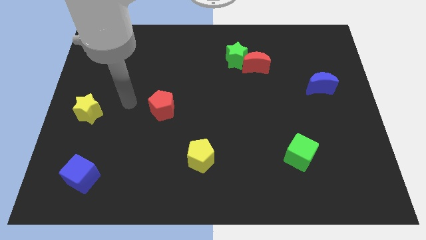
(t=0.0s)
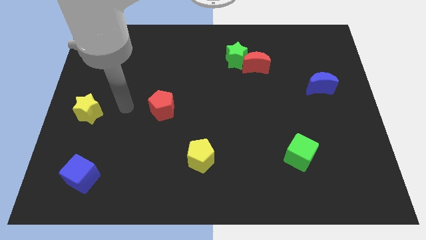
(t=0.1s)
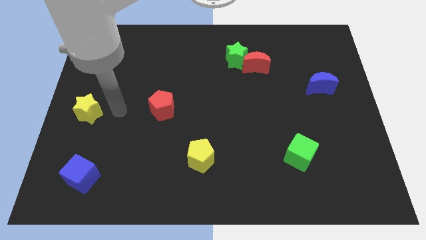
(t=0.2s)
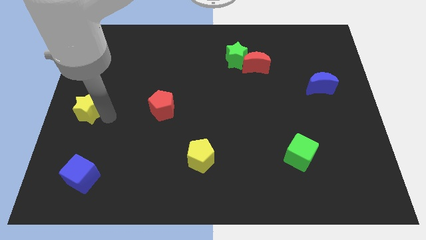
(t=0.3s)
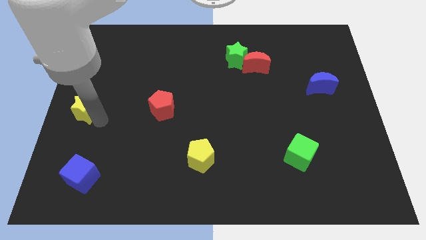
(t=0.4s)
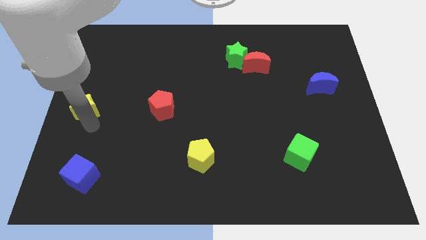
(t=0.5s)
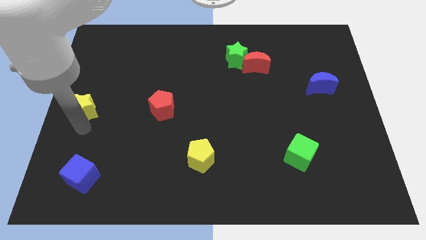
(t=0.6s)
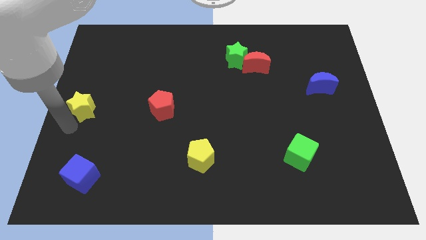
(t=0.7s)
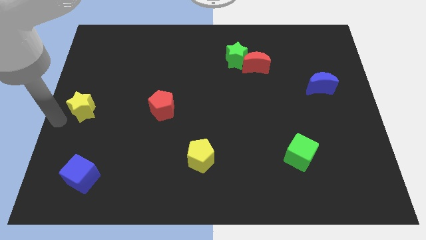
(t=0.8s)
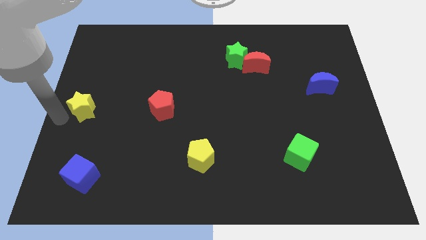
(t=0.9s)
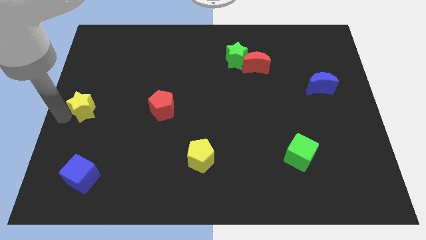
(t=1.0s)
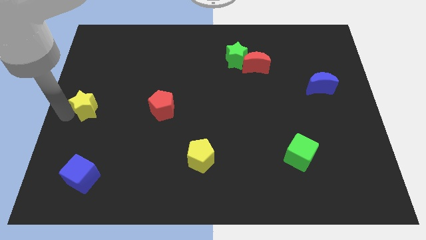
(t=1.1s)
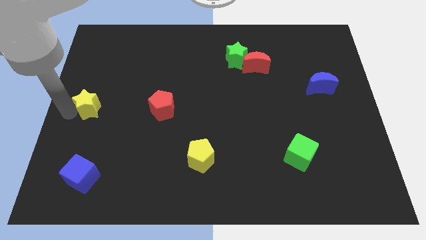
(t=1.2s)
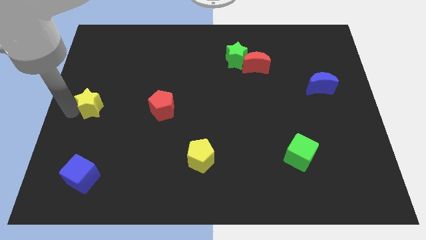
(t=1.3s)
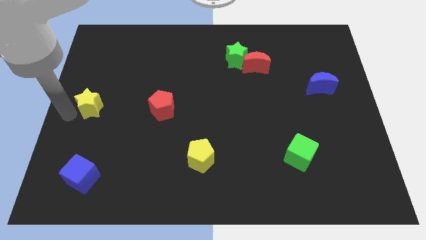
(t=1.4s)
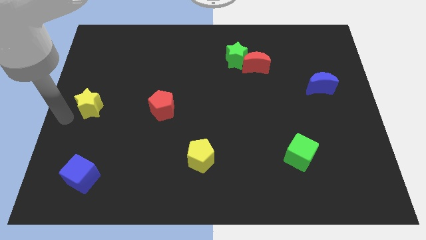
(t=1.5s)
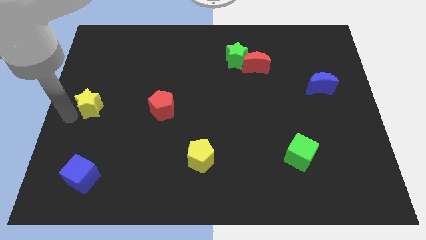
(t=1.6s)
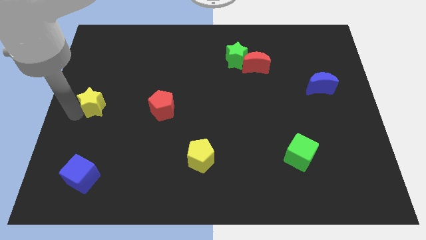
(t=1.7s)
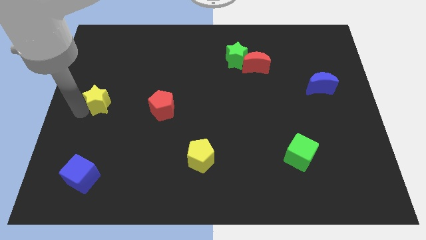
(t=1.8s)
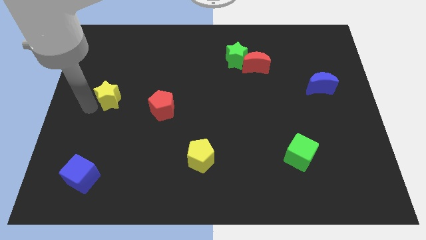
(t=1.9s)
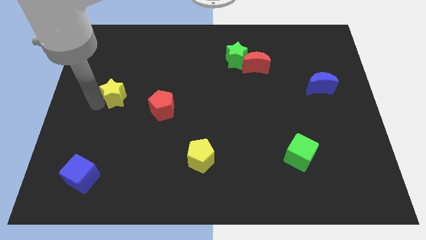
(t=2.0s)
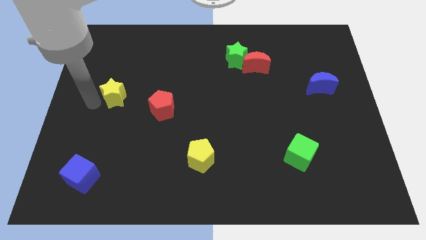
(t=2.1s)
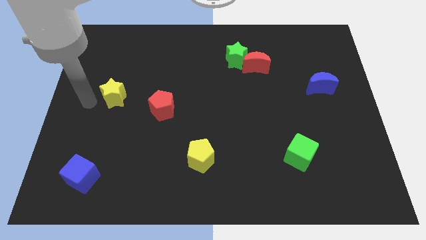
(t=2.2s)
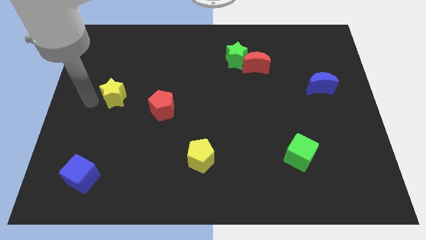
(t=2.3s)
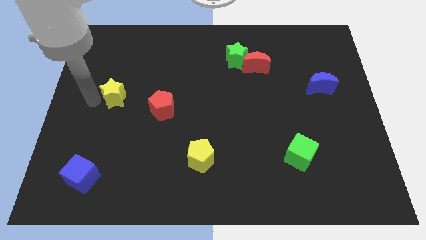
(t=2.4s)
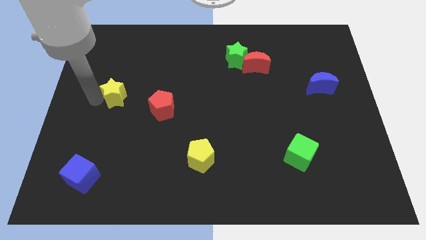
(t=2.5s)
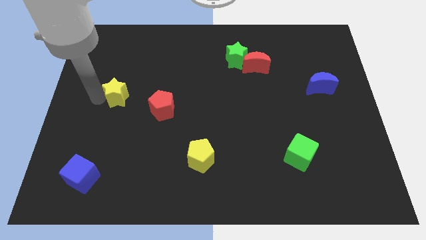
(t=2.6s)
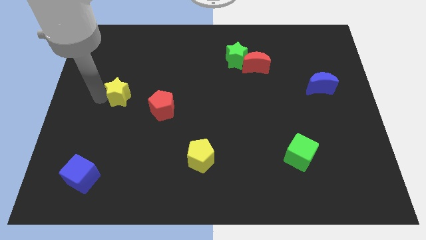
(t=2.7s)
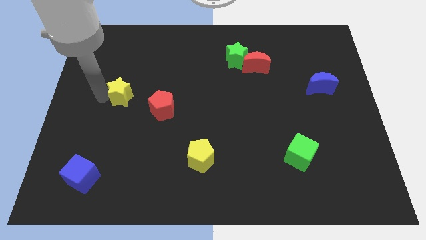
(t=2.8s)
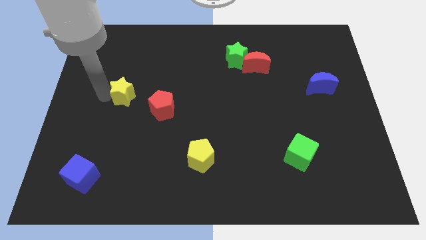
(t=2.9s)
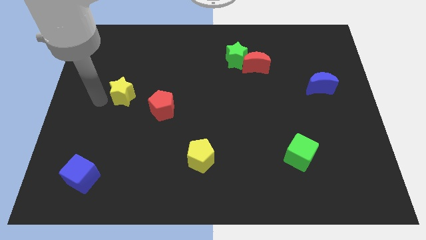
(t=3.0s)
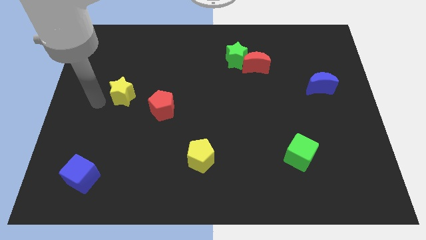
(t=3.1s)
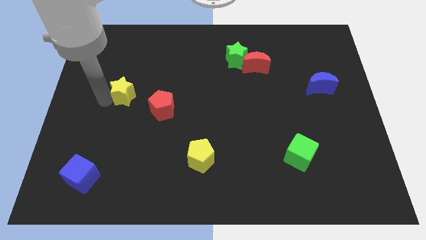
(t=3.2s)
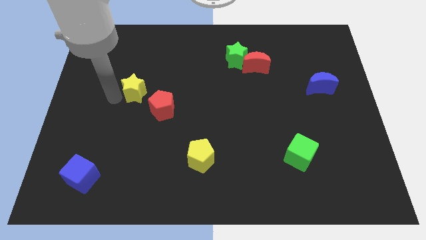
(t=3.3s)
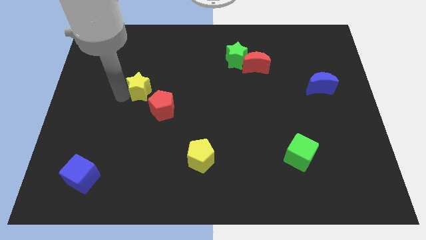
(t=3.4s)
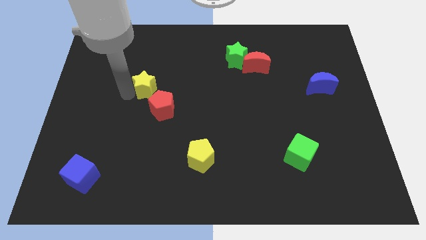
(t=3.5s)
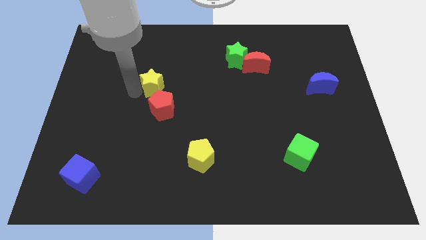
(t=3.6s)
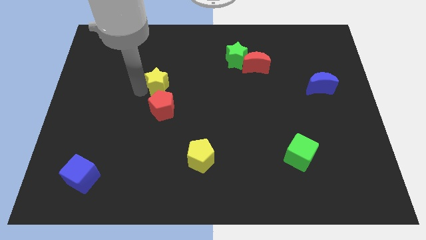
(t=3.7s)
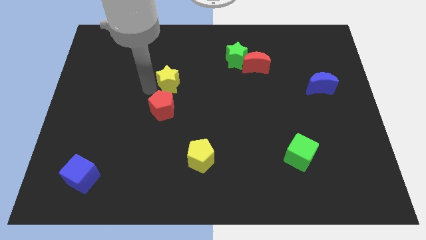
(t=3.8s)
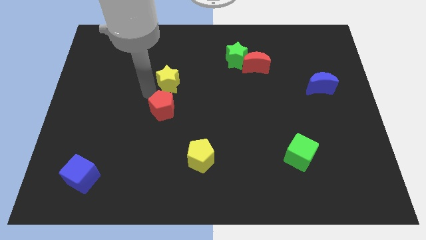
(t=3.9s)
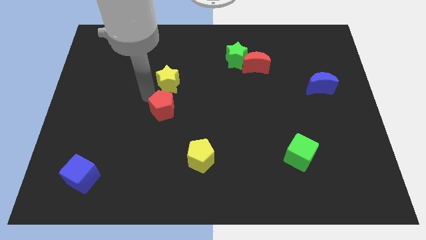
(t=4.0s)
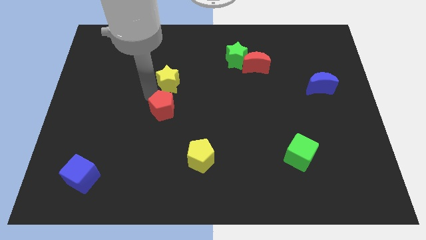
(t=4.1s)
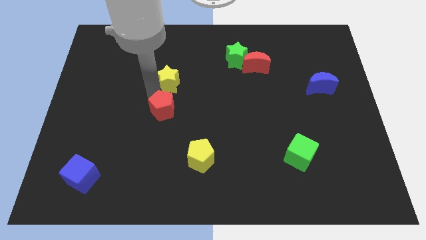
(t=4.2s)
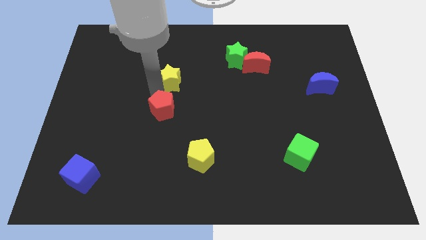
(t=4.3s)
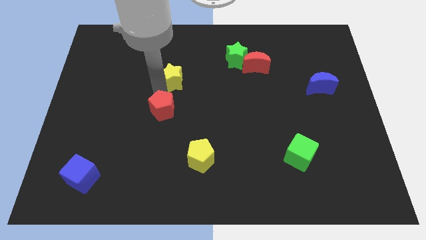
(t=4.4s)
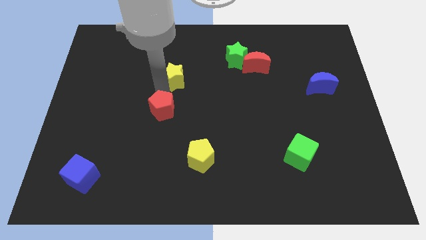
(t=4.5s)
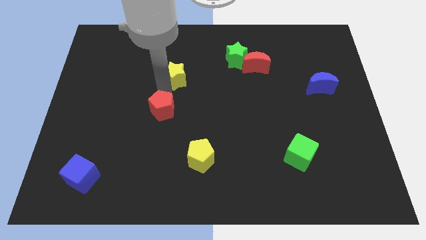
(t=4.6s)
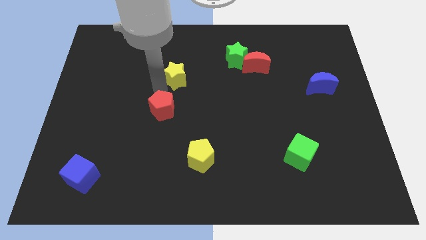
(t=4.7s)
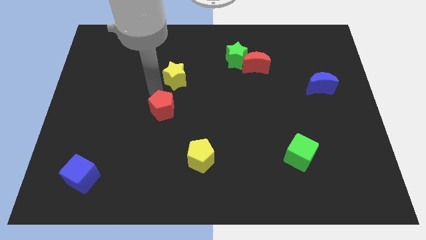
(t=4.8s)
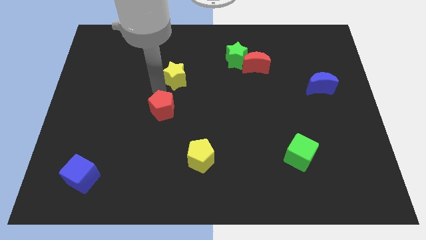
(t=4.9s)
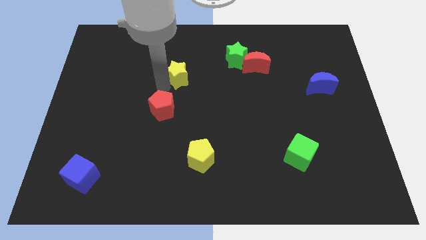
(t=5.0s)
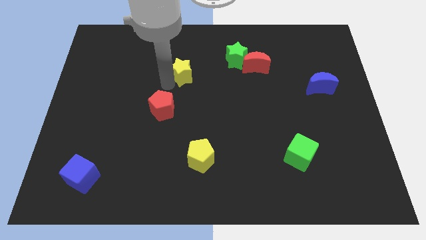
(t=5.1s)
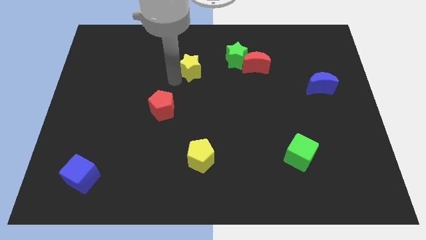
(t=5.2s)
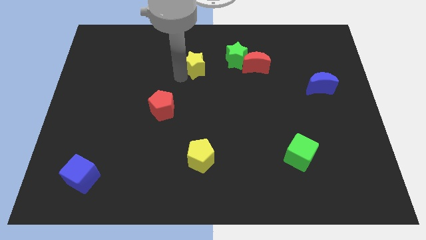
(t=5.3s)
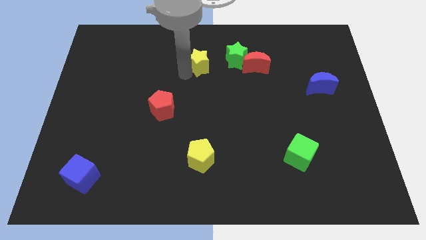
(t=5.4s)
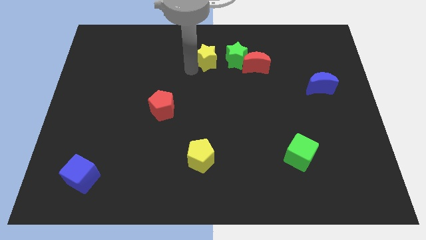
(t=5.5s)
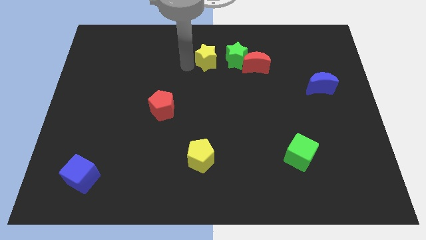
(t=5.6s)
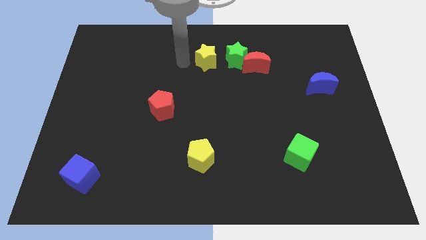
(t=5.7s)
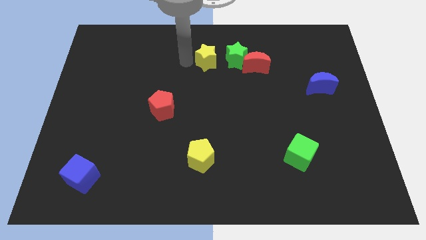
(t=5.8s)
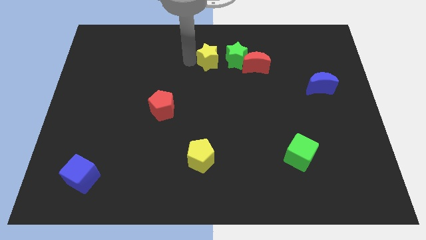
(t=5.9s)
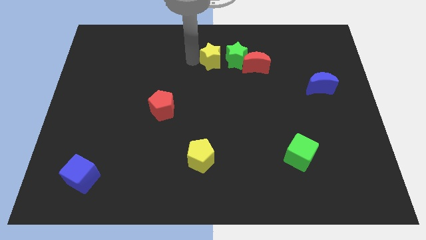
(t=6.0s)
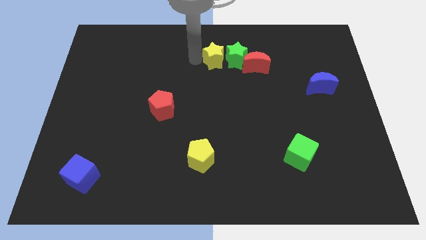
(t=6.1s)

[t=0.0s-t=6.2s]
push the yellow star towards the green star

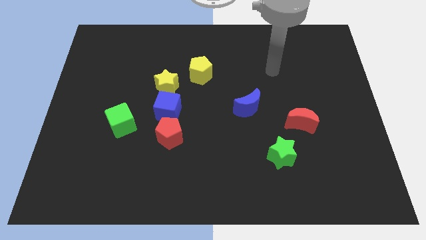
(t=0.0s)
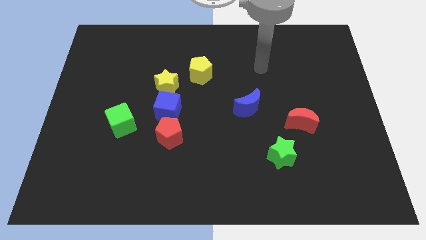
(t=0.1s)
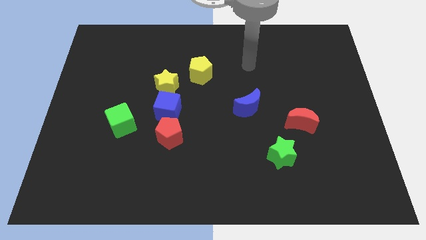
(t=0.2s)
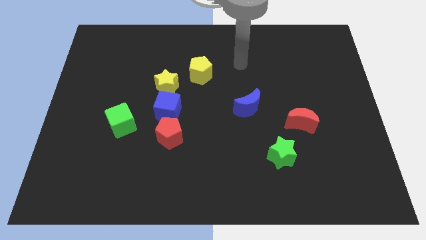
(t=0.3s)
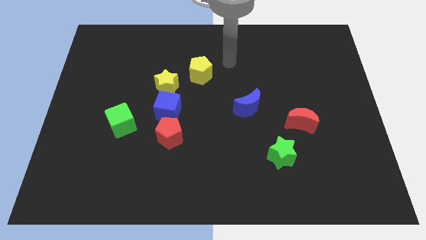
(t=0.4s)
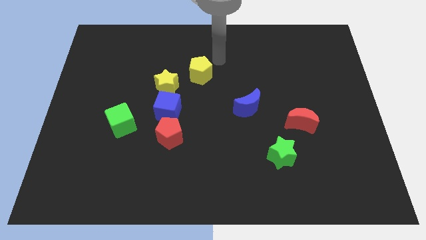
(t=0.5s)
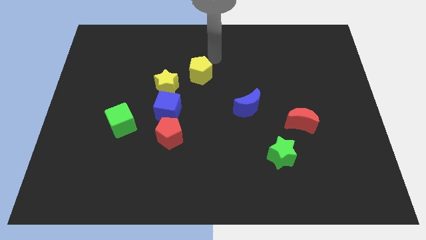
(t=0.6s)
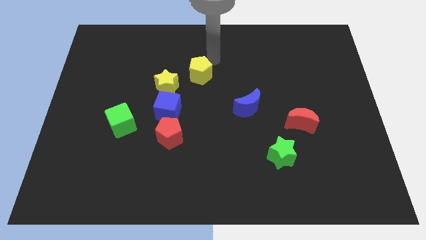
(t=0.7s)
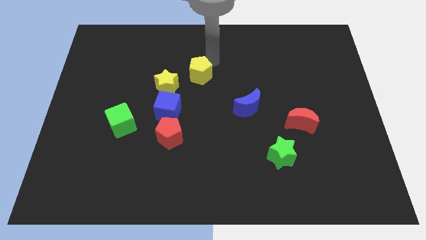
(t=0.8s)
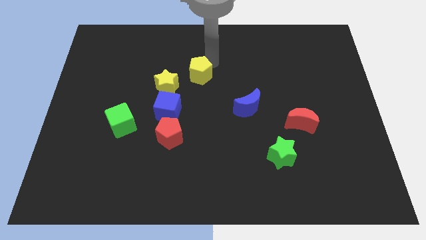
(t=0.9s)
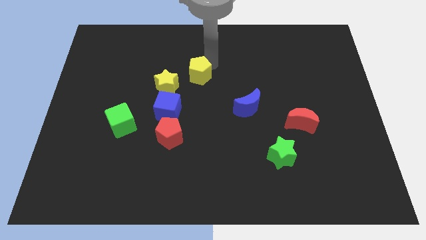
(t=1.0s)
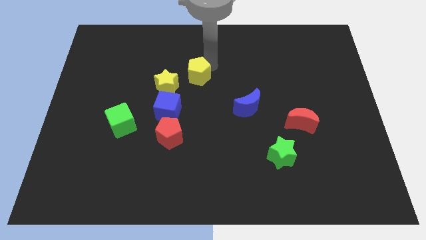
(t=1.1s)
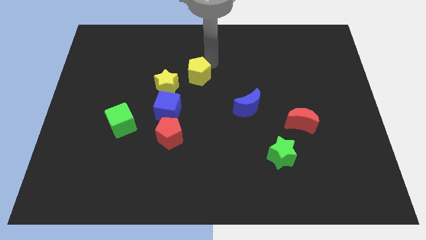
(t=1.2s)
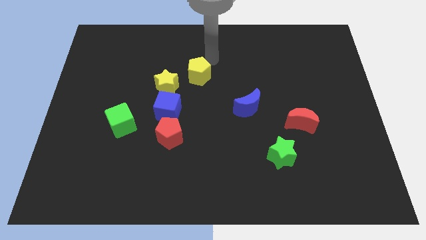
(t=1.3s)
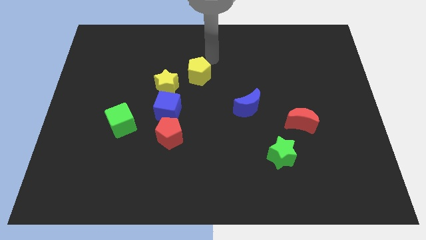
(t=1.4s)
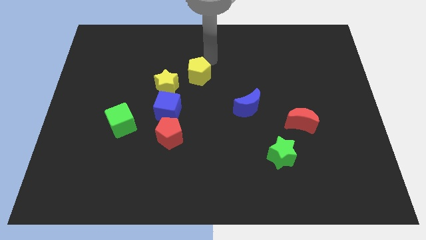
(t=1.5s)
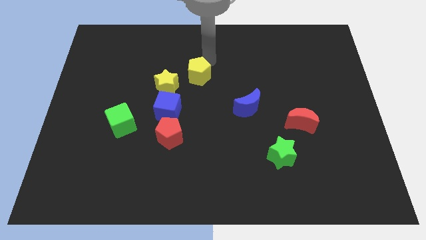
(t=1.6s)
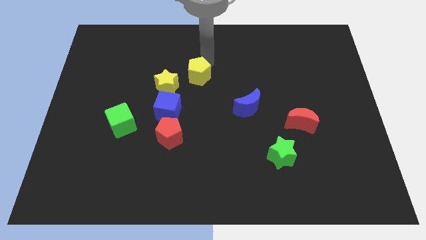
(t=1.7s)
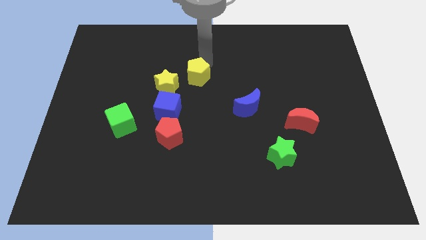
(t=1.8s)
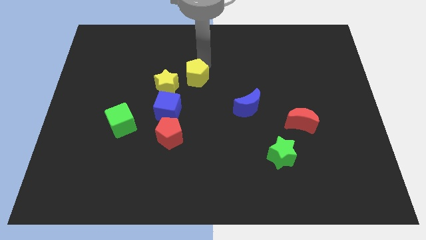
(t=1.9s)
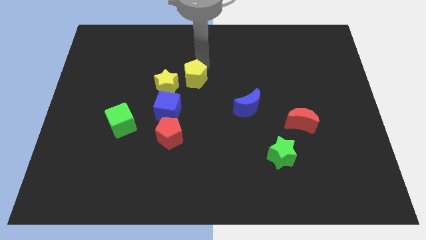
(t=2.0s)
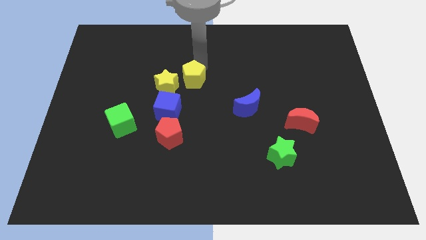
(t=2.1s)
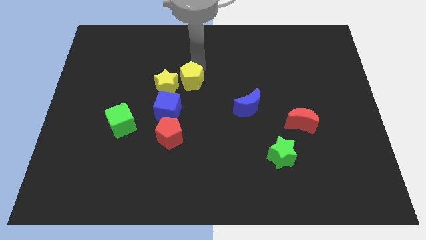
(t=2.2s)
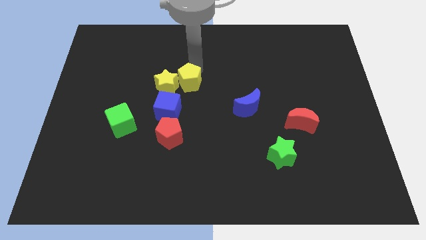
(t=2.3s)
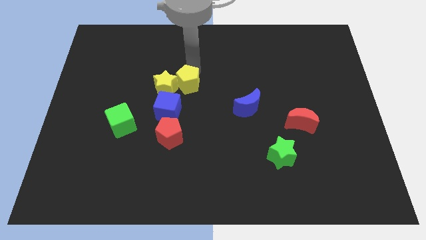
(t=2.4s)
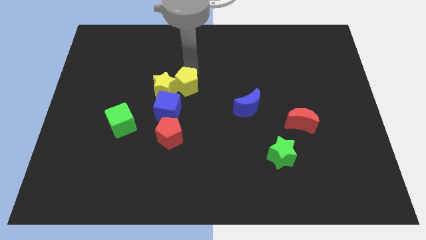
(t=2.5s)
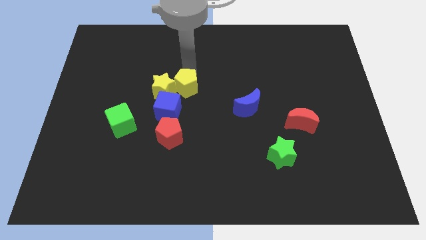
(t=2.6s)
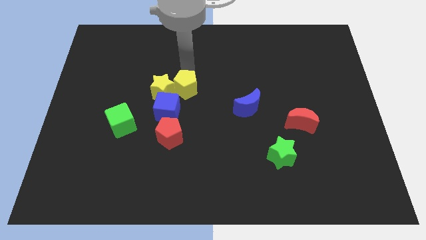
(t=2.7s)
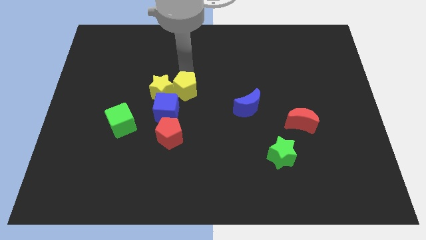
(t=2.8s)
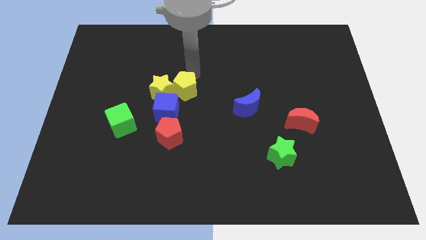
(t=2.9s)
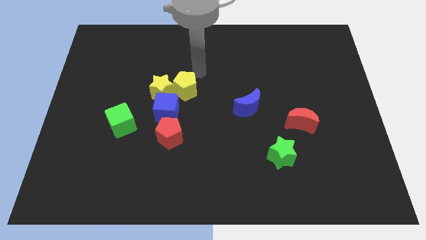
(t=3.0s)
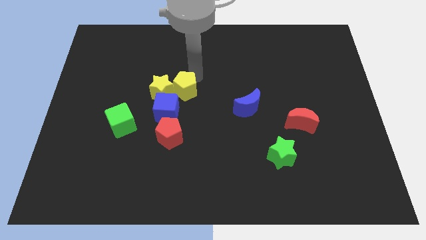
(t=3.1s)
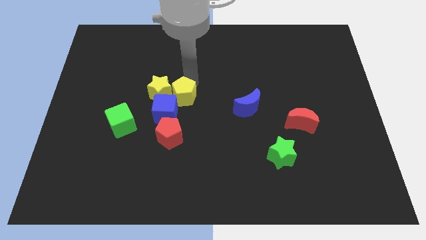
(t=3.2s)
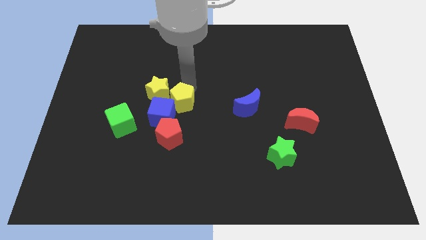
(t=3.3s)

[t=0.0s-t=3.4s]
slide the yellow pentagon close to the blue cube
